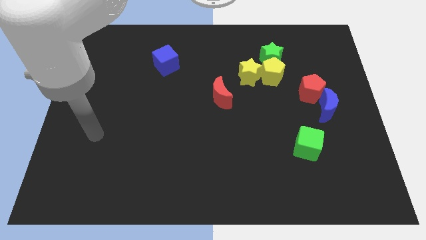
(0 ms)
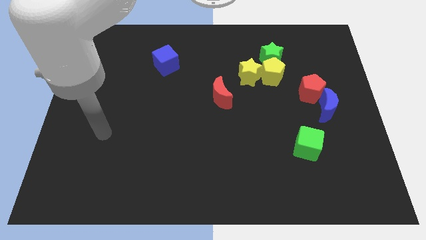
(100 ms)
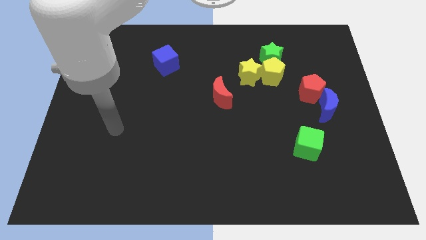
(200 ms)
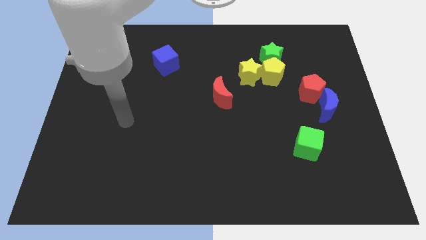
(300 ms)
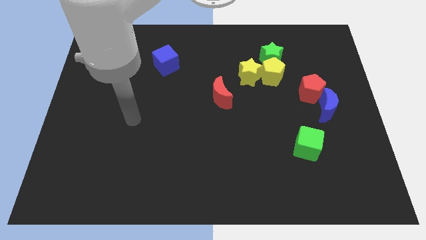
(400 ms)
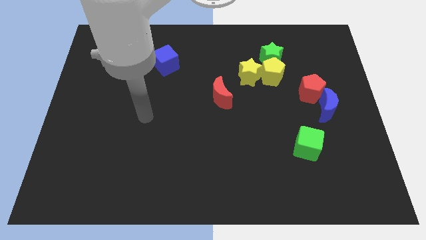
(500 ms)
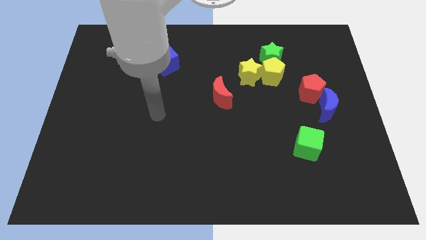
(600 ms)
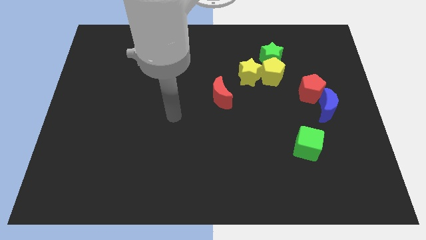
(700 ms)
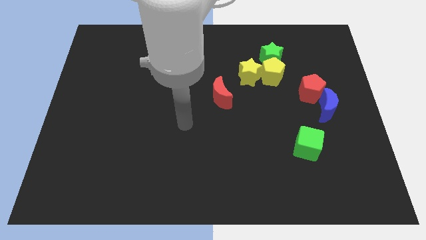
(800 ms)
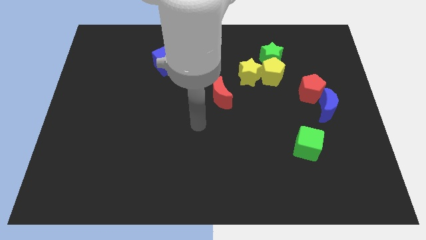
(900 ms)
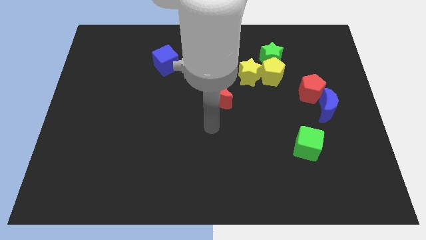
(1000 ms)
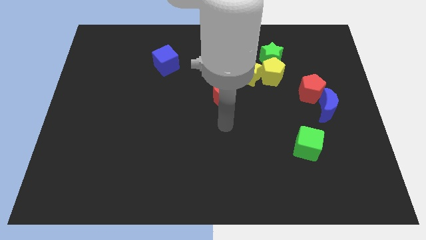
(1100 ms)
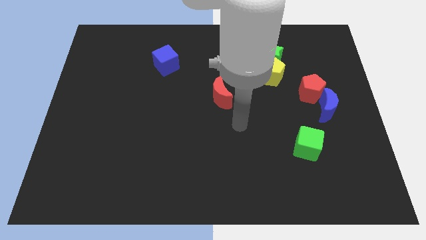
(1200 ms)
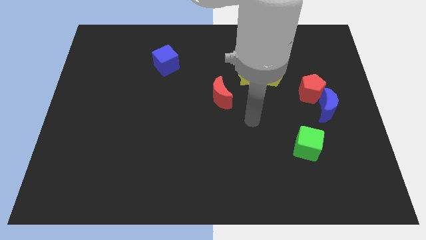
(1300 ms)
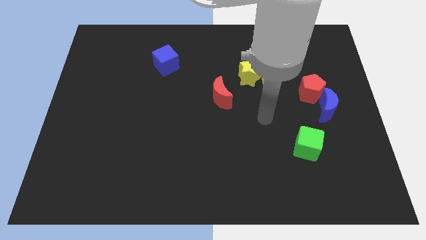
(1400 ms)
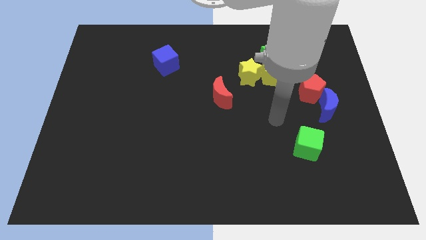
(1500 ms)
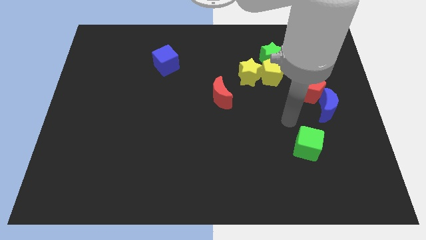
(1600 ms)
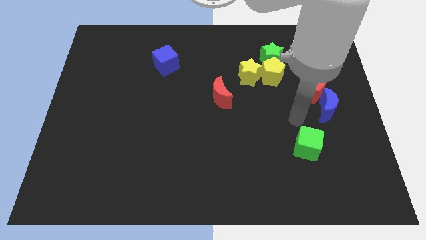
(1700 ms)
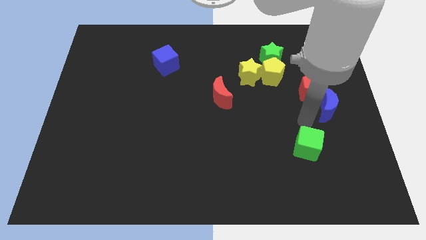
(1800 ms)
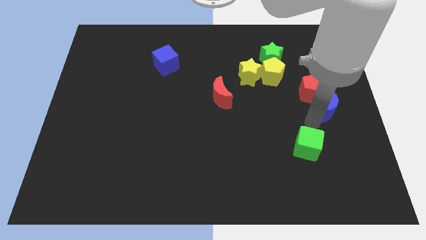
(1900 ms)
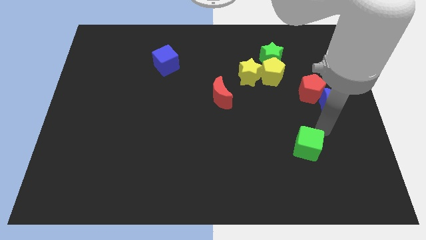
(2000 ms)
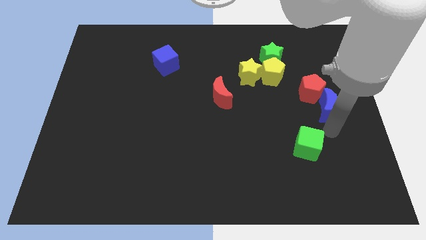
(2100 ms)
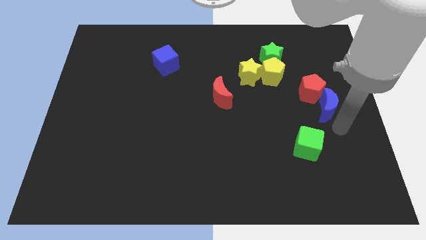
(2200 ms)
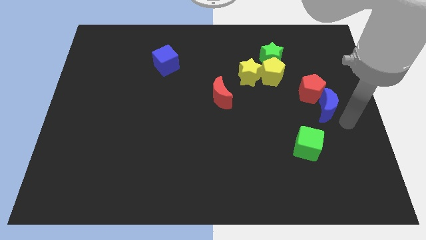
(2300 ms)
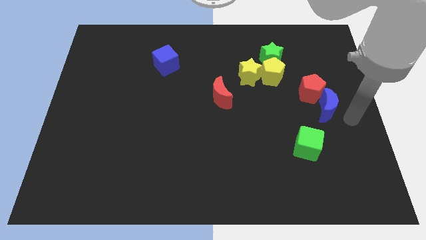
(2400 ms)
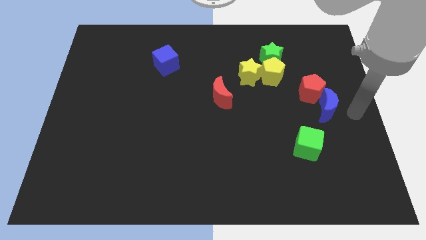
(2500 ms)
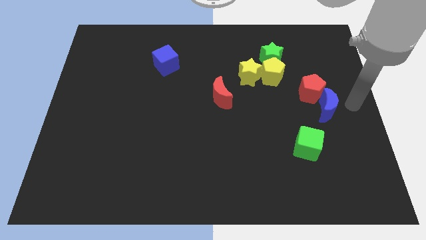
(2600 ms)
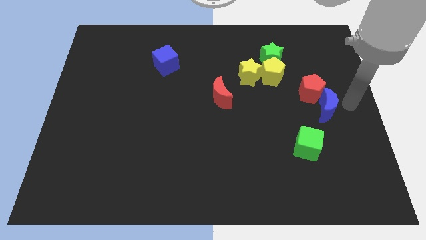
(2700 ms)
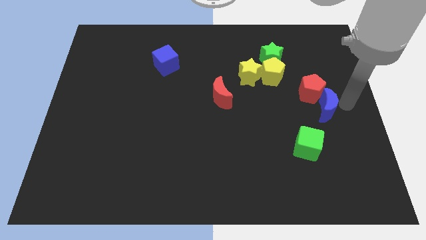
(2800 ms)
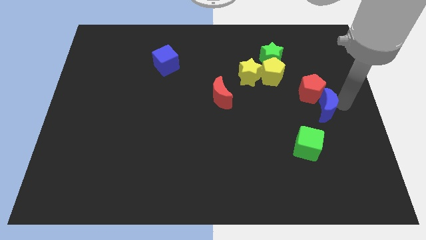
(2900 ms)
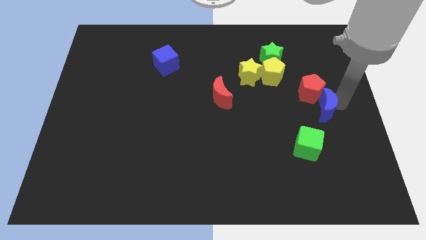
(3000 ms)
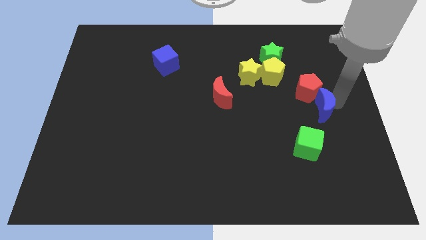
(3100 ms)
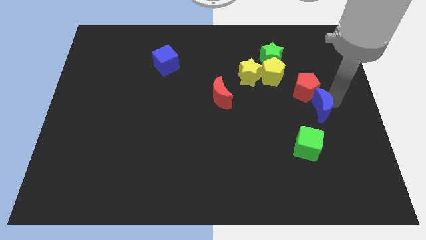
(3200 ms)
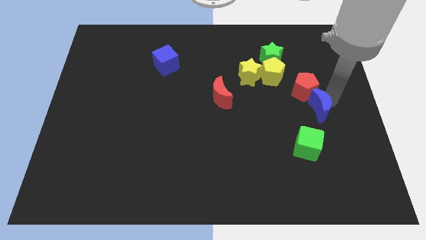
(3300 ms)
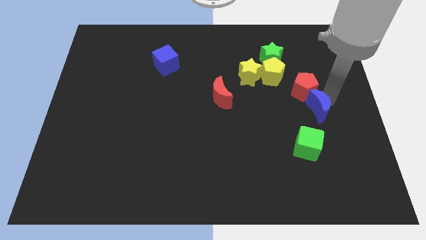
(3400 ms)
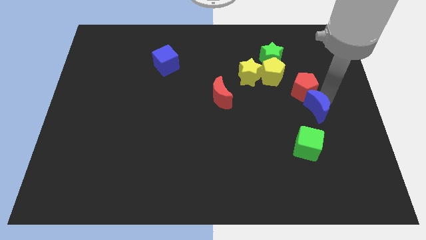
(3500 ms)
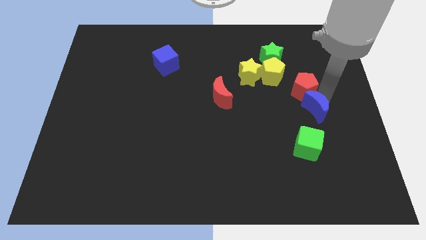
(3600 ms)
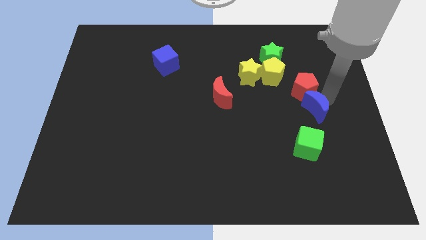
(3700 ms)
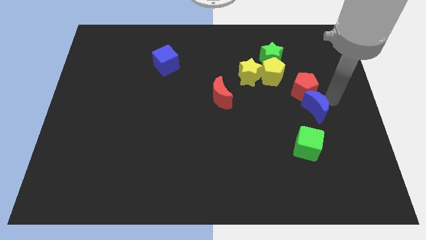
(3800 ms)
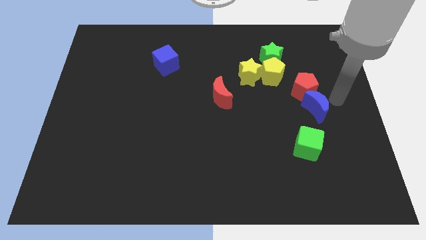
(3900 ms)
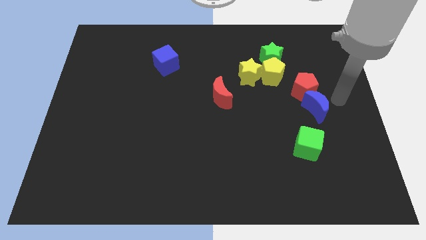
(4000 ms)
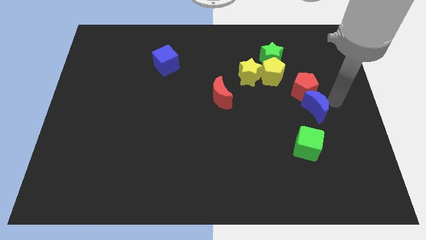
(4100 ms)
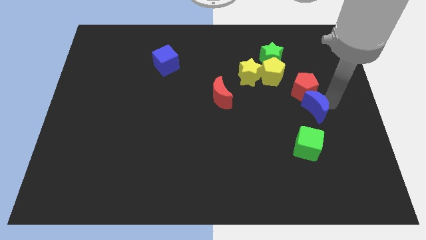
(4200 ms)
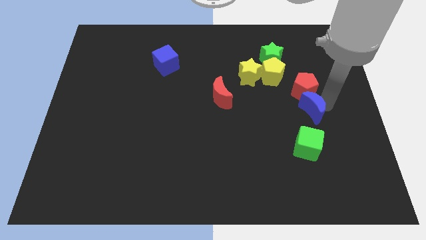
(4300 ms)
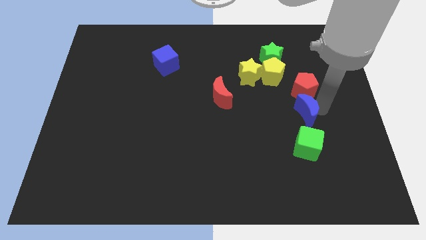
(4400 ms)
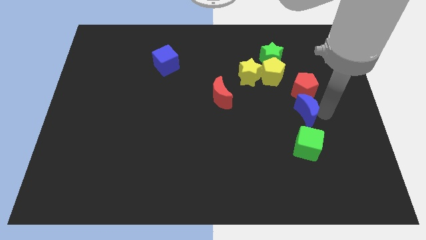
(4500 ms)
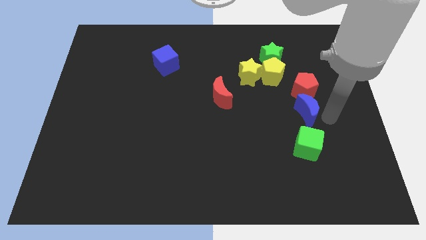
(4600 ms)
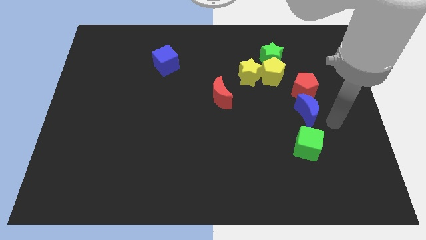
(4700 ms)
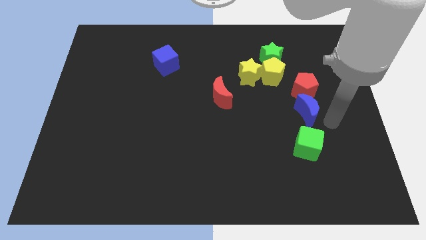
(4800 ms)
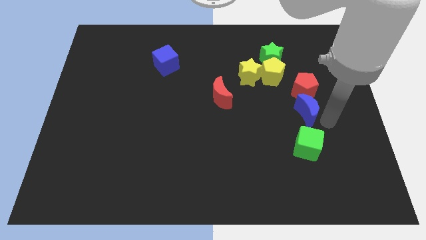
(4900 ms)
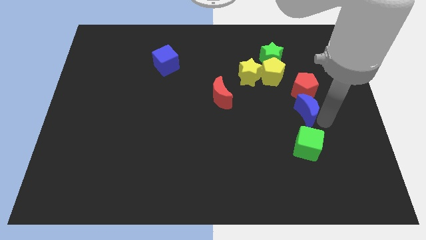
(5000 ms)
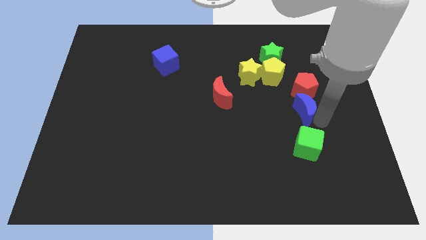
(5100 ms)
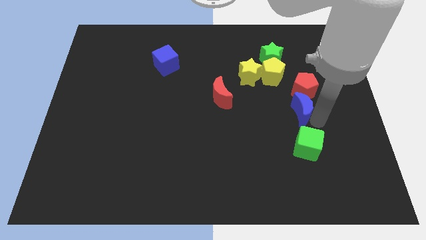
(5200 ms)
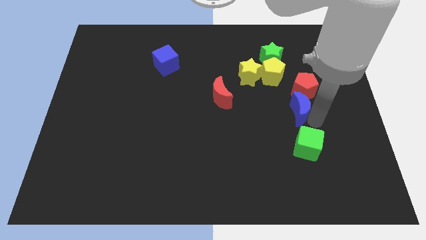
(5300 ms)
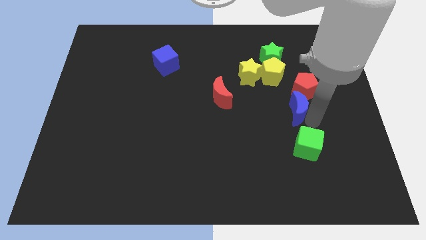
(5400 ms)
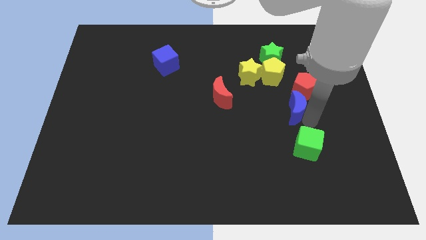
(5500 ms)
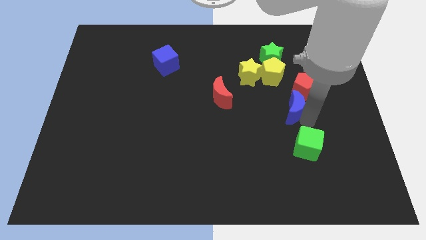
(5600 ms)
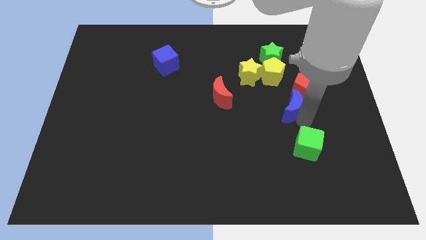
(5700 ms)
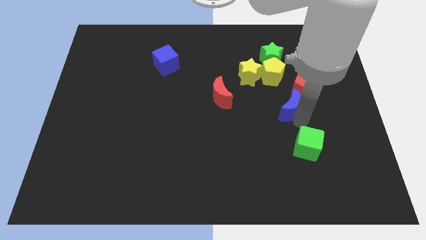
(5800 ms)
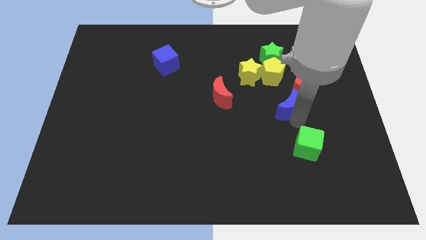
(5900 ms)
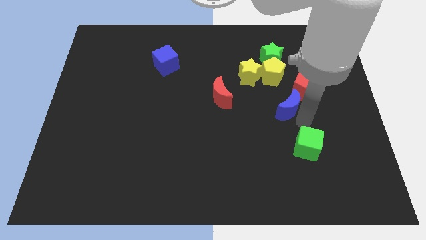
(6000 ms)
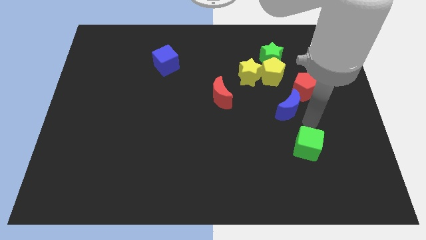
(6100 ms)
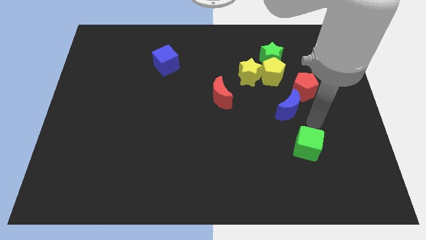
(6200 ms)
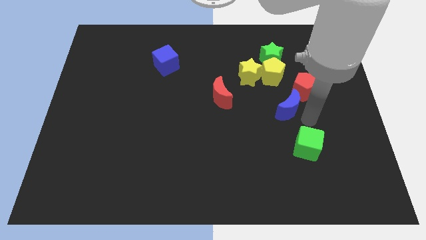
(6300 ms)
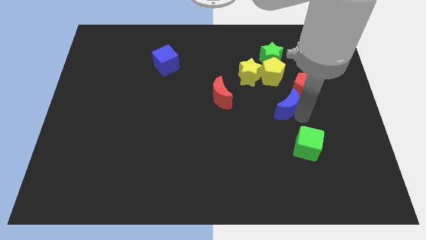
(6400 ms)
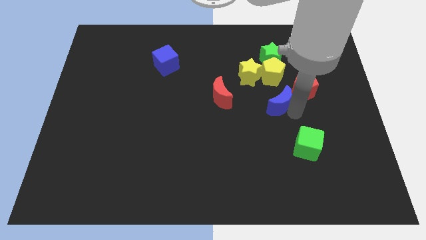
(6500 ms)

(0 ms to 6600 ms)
move the blue moon just right of the red moon

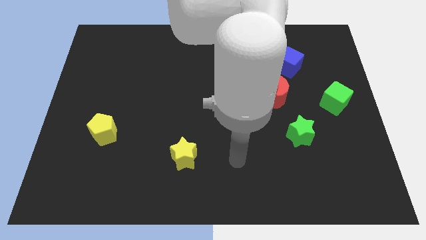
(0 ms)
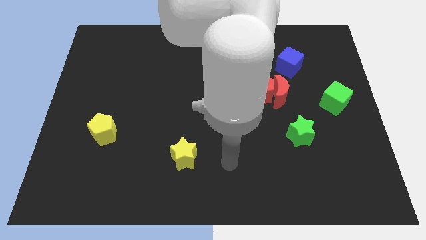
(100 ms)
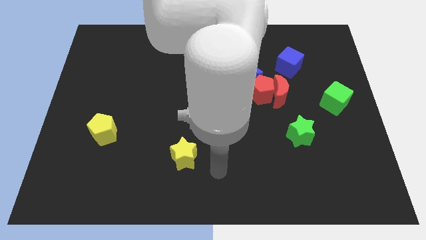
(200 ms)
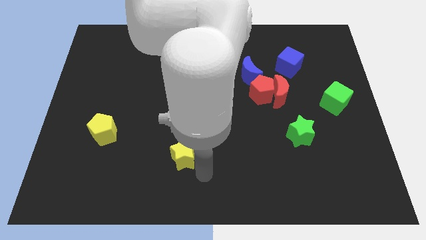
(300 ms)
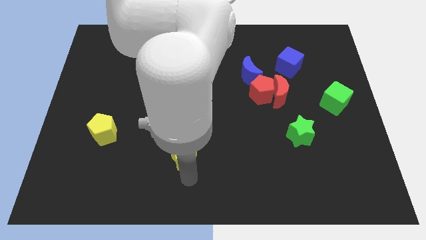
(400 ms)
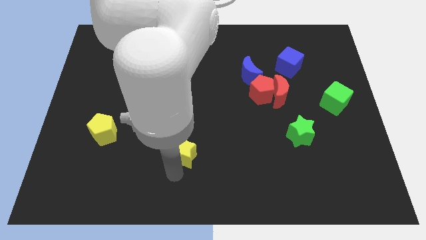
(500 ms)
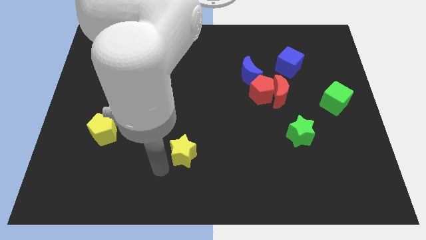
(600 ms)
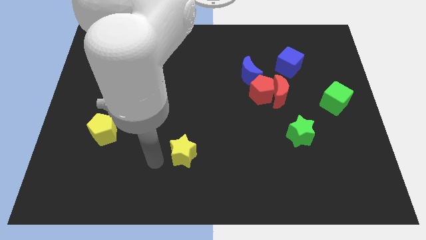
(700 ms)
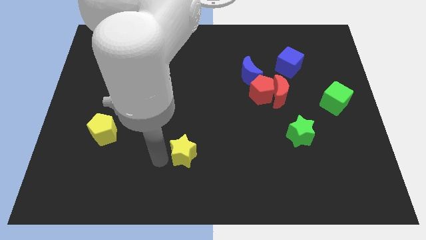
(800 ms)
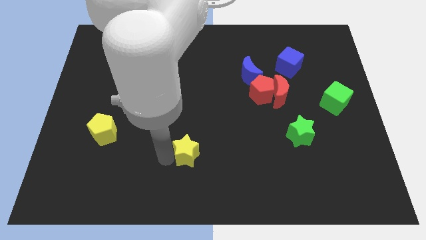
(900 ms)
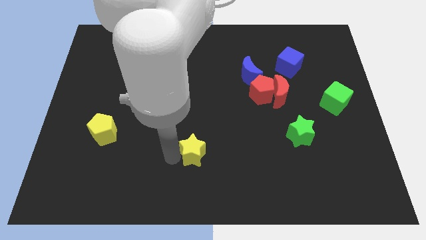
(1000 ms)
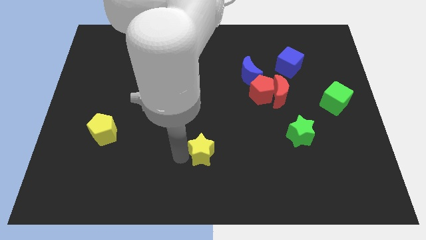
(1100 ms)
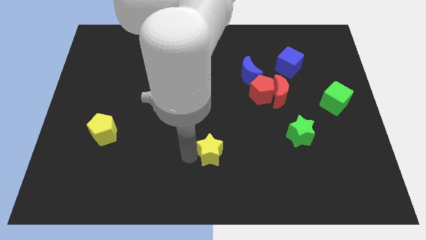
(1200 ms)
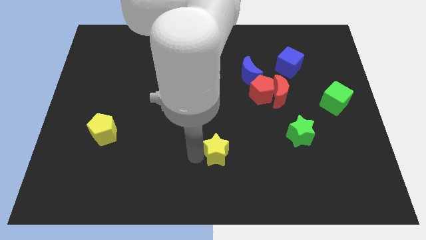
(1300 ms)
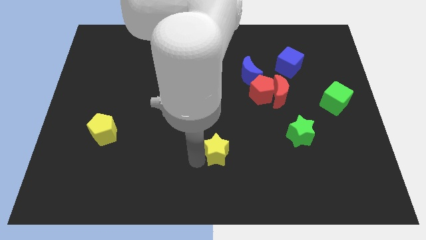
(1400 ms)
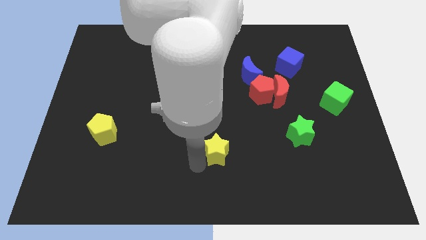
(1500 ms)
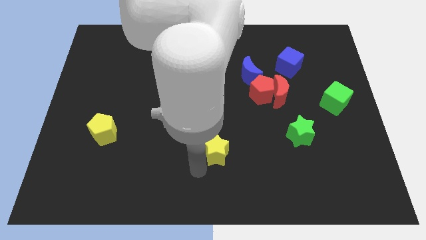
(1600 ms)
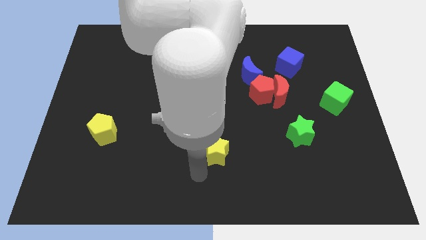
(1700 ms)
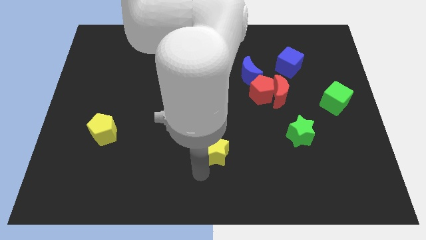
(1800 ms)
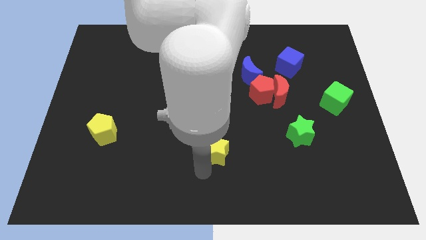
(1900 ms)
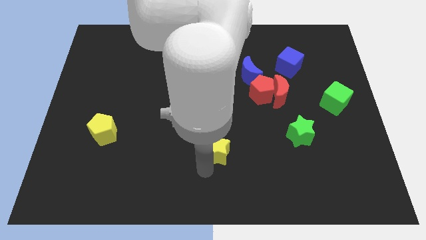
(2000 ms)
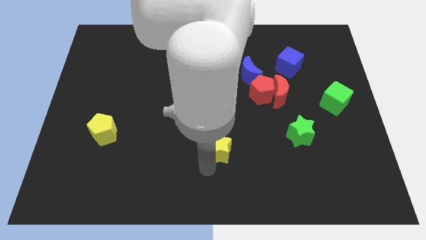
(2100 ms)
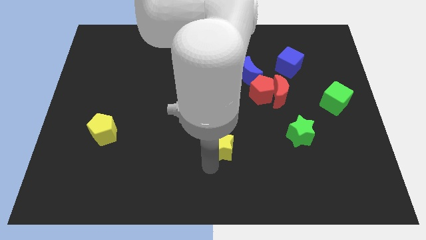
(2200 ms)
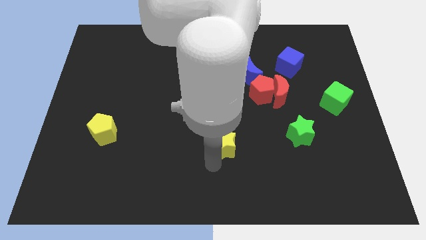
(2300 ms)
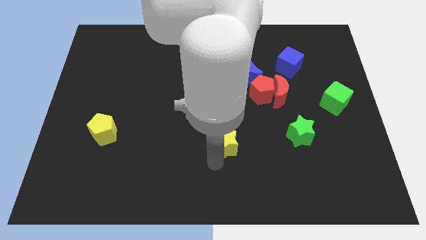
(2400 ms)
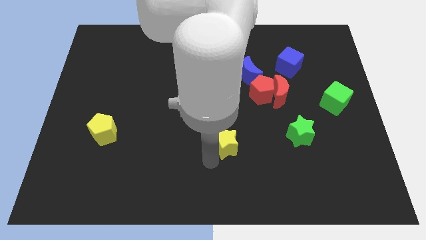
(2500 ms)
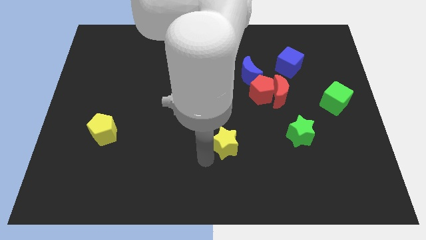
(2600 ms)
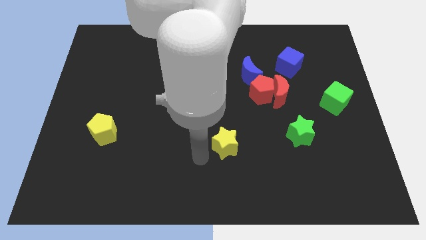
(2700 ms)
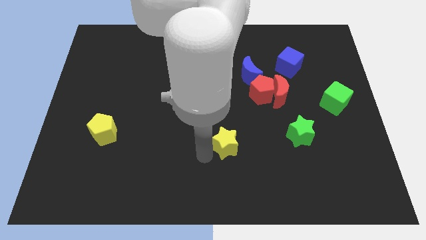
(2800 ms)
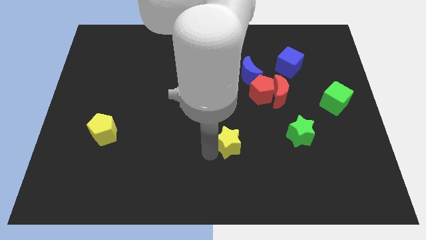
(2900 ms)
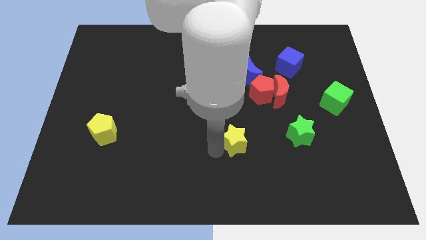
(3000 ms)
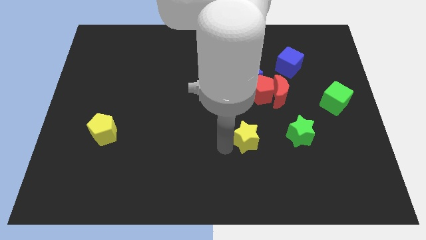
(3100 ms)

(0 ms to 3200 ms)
slide the yellow star below the red pentagon
